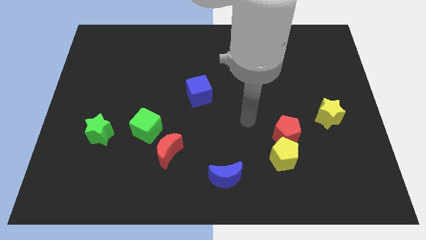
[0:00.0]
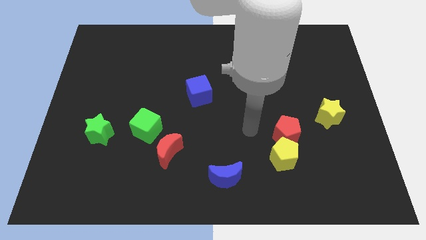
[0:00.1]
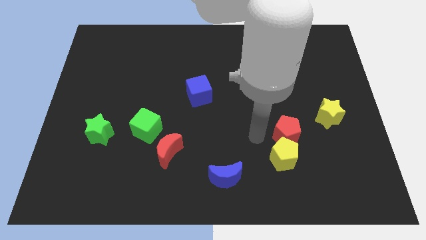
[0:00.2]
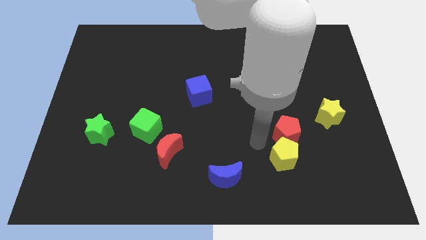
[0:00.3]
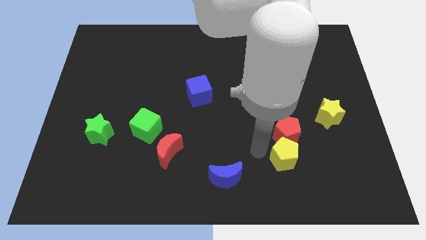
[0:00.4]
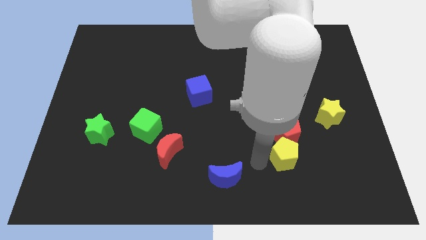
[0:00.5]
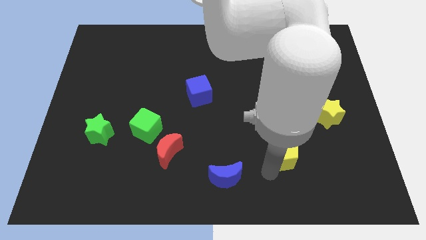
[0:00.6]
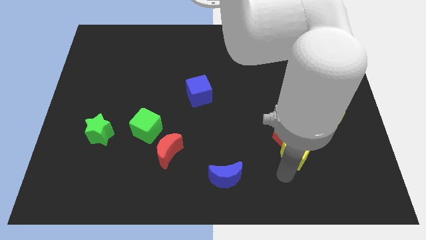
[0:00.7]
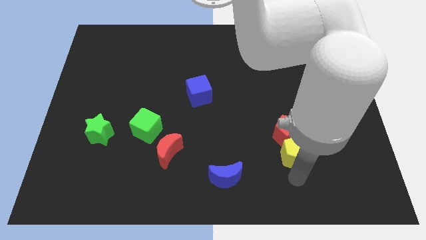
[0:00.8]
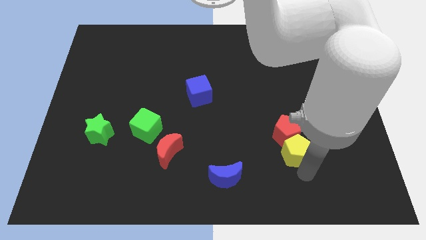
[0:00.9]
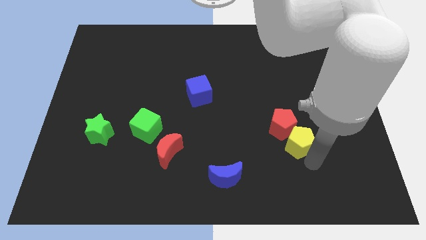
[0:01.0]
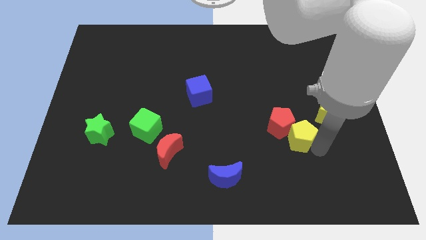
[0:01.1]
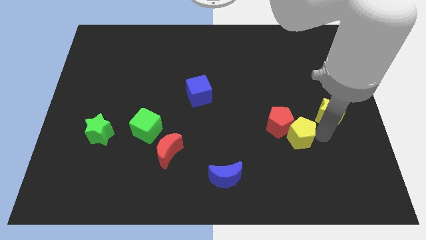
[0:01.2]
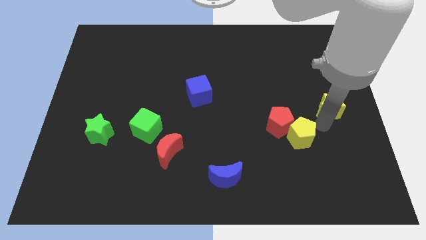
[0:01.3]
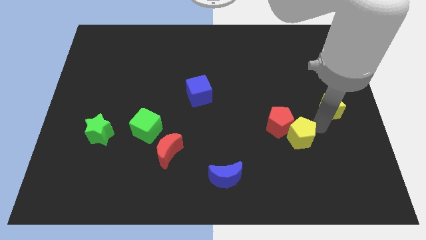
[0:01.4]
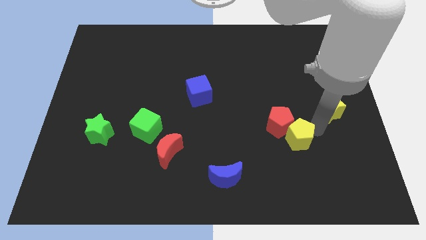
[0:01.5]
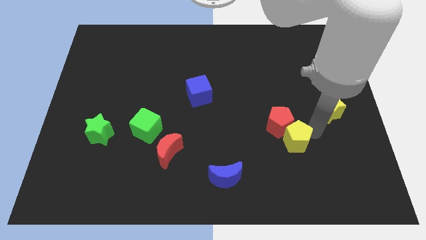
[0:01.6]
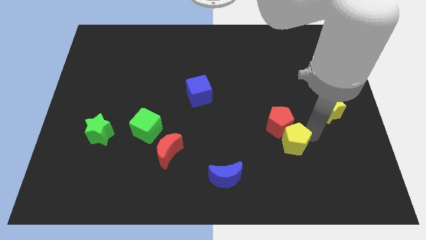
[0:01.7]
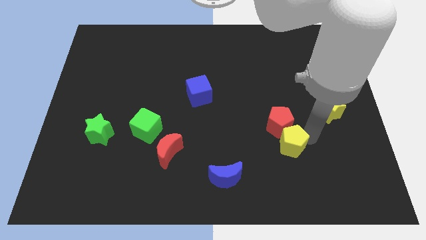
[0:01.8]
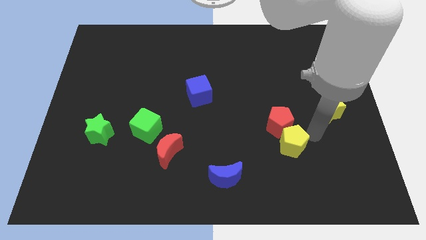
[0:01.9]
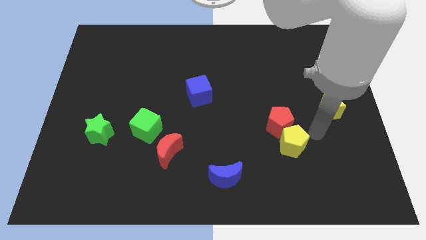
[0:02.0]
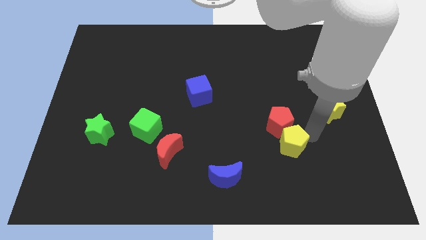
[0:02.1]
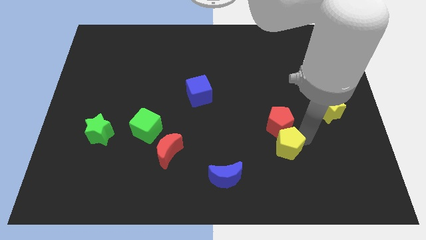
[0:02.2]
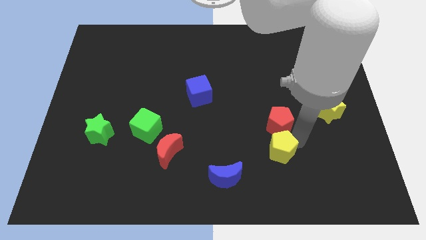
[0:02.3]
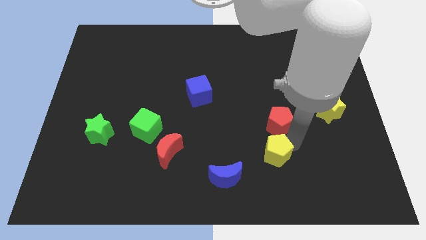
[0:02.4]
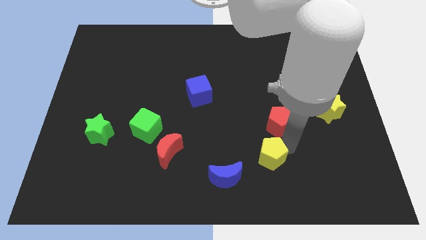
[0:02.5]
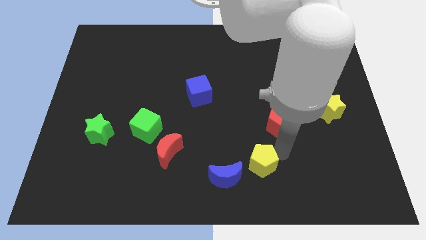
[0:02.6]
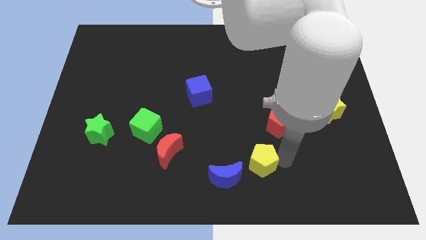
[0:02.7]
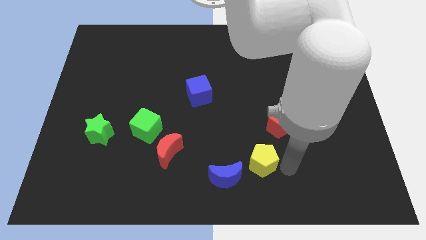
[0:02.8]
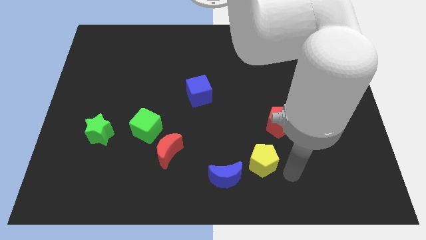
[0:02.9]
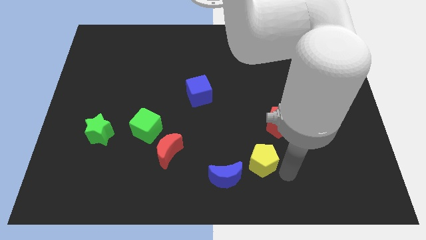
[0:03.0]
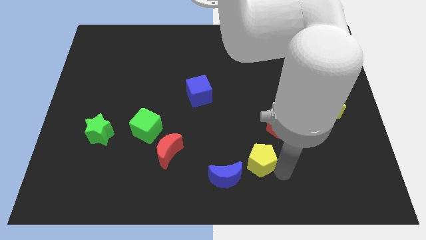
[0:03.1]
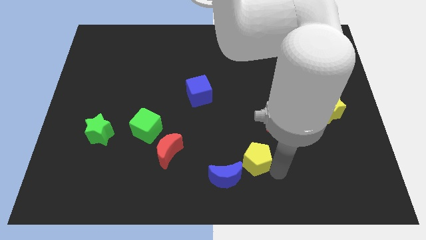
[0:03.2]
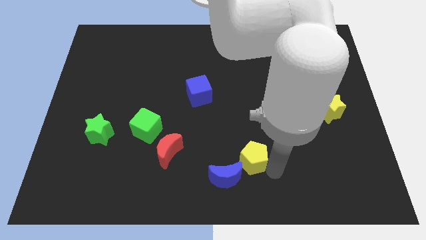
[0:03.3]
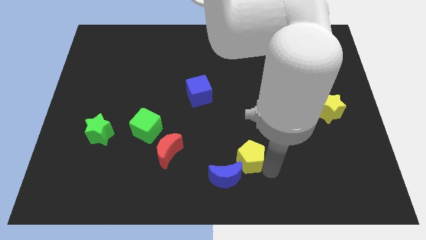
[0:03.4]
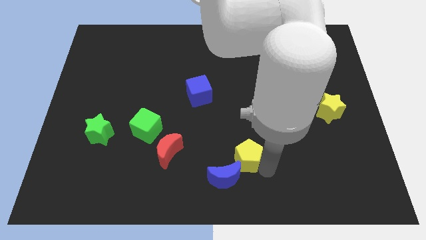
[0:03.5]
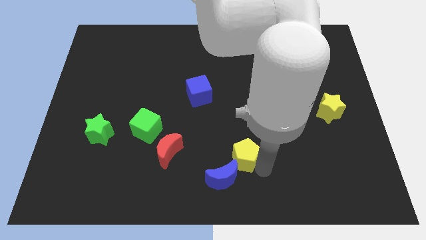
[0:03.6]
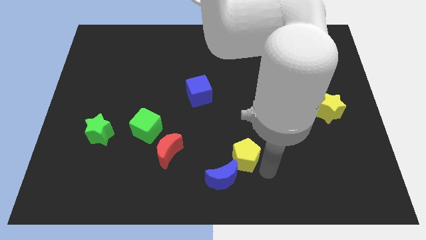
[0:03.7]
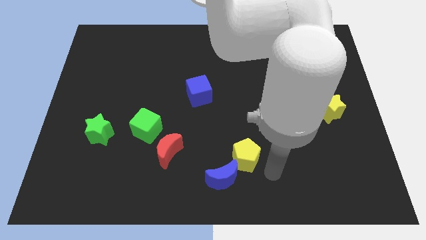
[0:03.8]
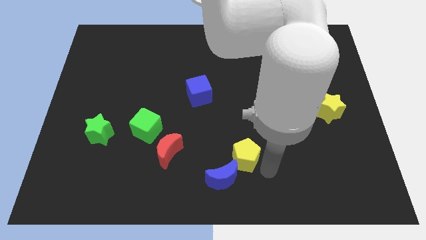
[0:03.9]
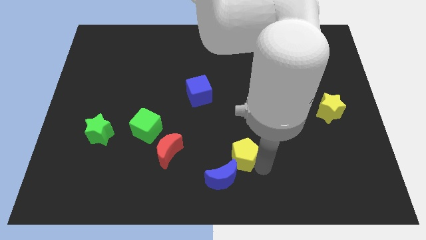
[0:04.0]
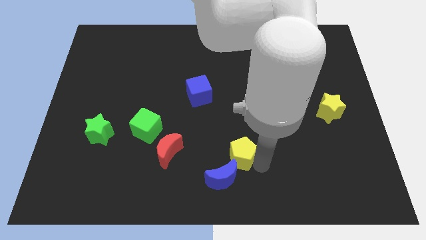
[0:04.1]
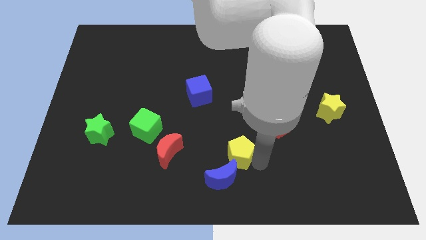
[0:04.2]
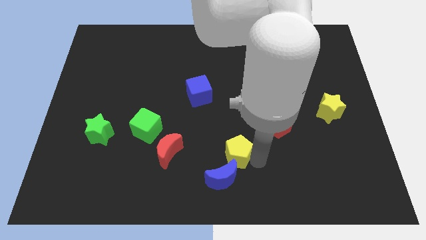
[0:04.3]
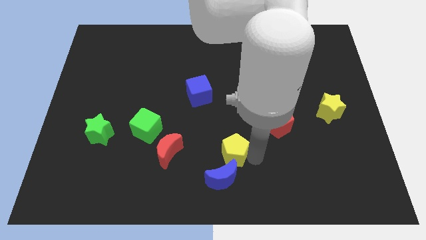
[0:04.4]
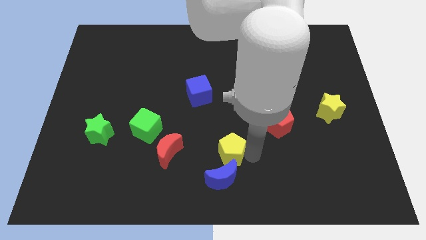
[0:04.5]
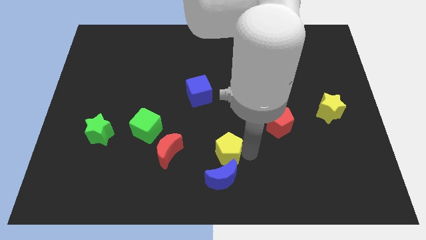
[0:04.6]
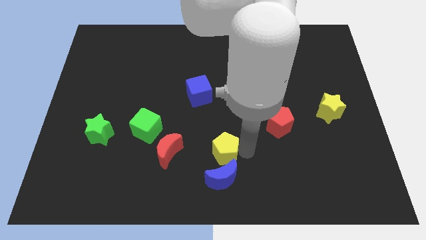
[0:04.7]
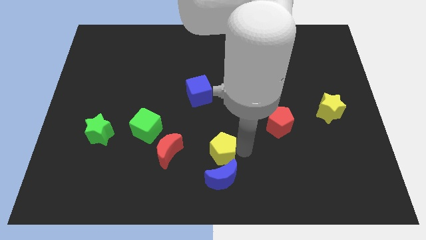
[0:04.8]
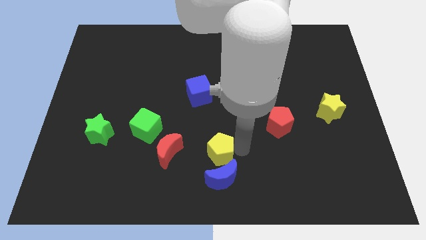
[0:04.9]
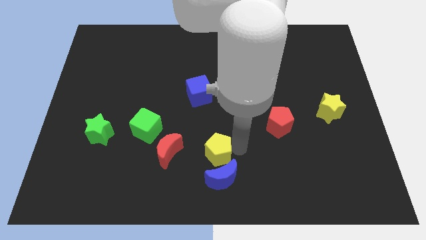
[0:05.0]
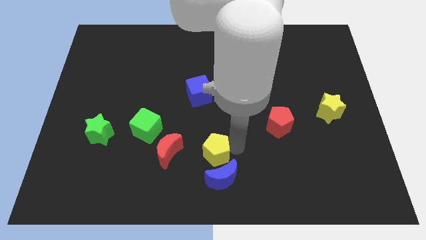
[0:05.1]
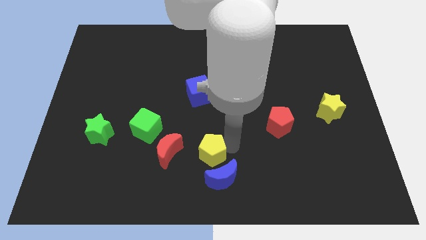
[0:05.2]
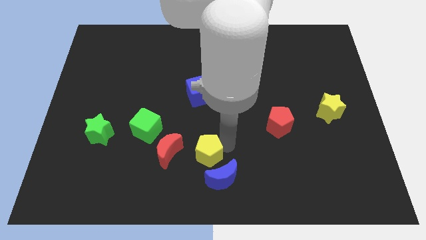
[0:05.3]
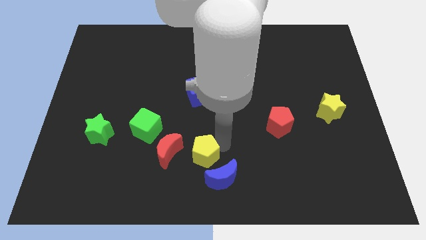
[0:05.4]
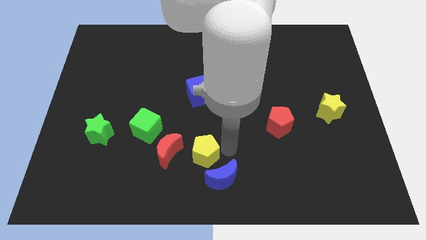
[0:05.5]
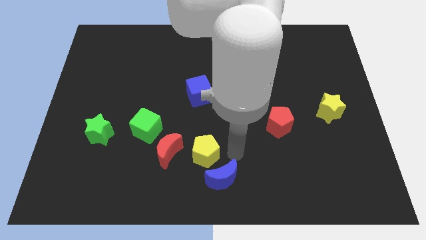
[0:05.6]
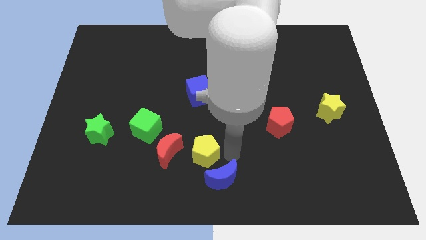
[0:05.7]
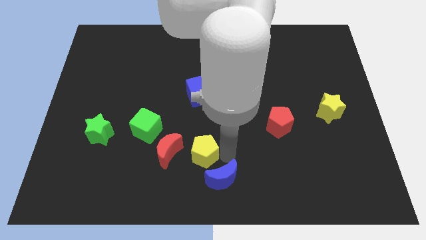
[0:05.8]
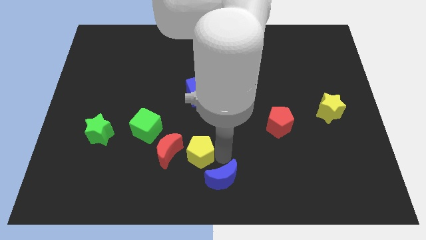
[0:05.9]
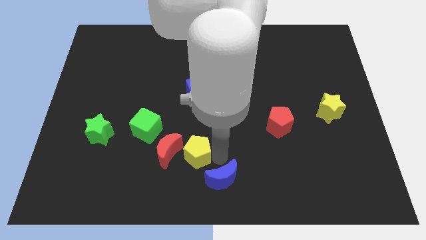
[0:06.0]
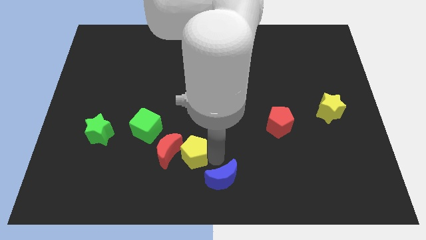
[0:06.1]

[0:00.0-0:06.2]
move the yellow pentagon close to the red moon

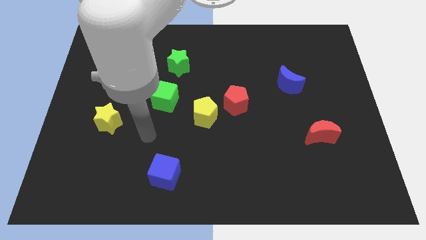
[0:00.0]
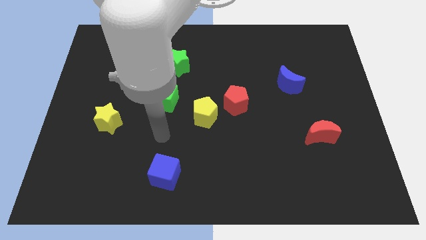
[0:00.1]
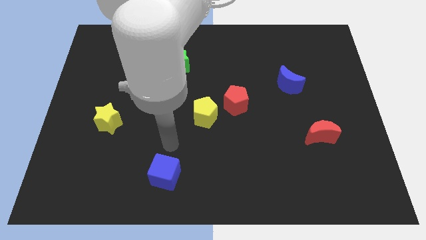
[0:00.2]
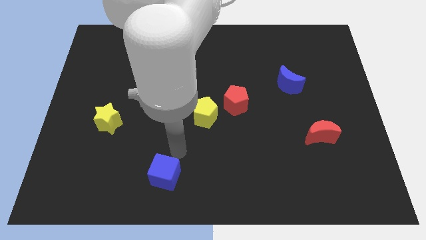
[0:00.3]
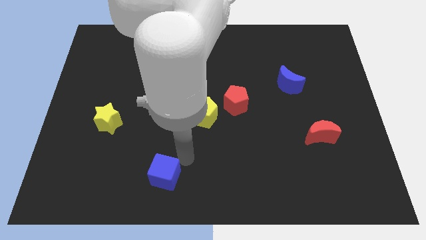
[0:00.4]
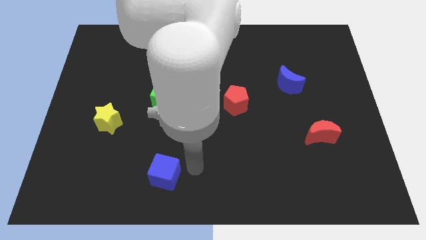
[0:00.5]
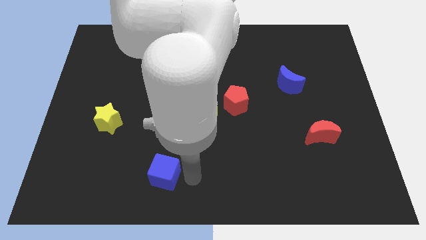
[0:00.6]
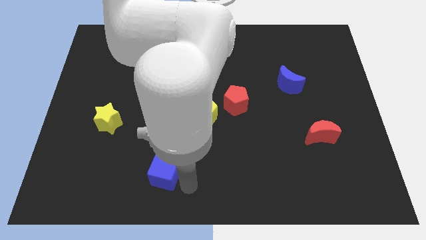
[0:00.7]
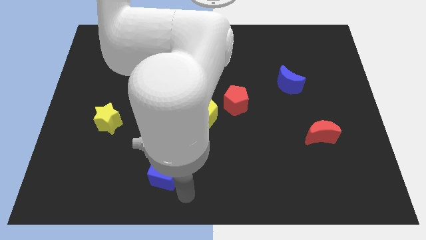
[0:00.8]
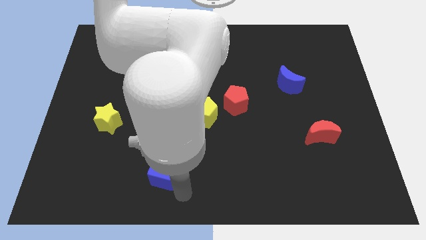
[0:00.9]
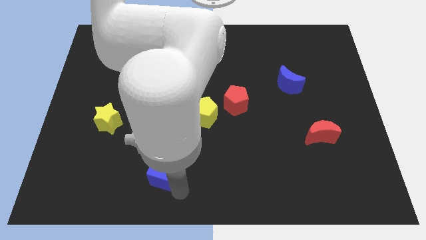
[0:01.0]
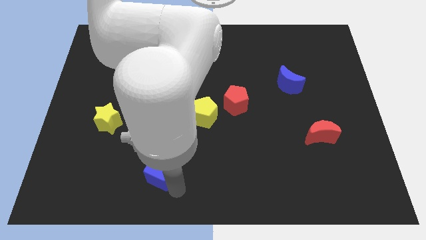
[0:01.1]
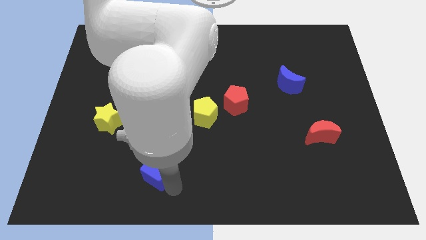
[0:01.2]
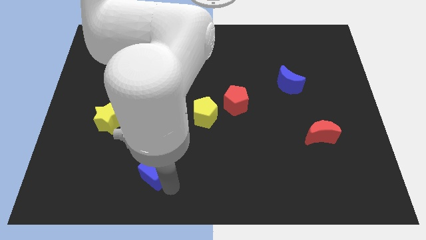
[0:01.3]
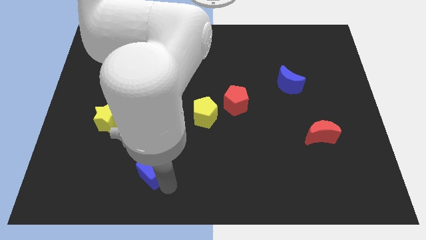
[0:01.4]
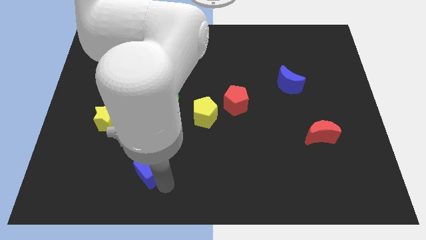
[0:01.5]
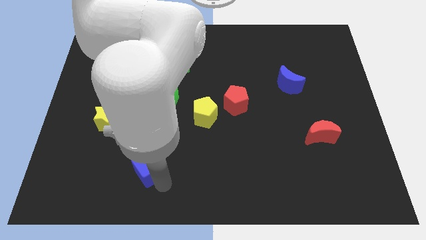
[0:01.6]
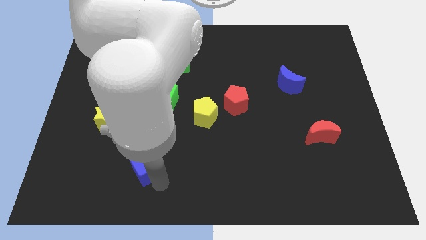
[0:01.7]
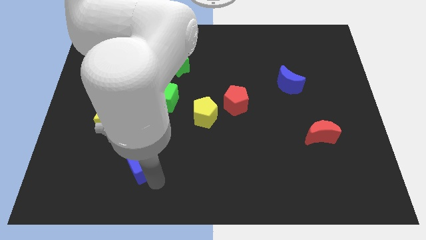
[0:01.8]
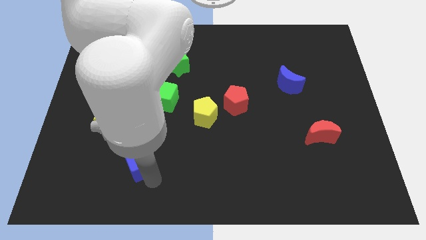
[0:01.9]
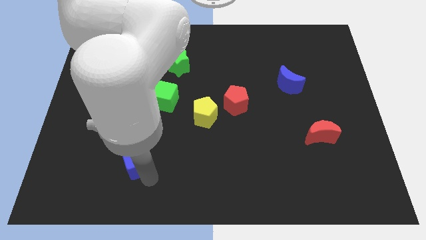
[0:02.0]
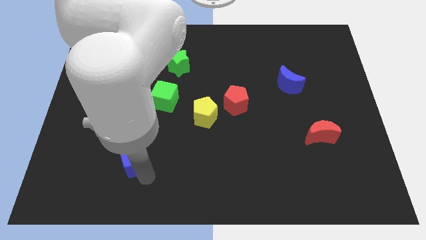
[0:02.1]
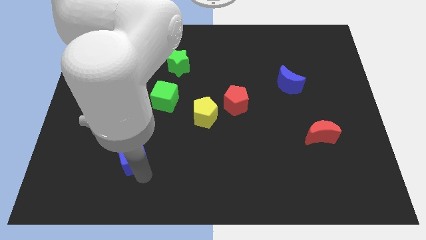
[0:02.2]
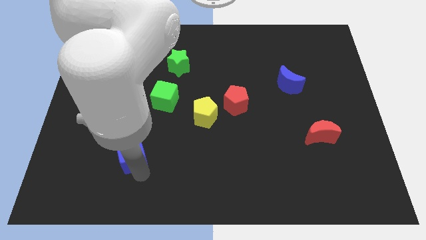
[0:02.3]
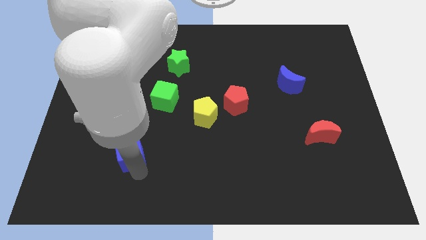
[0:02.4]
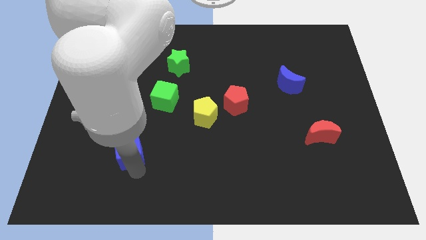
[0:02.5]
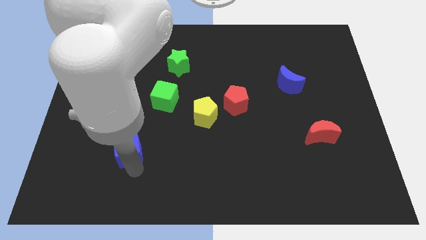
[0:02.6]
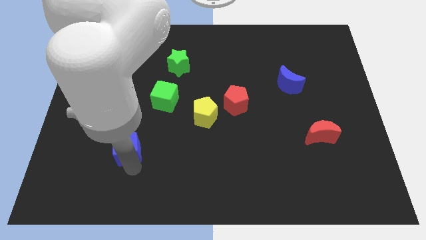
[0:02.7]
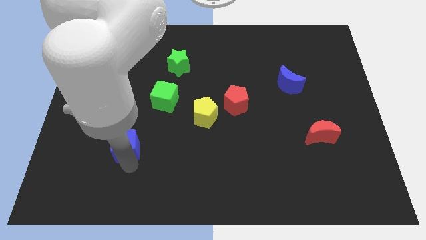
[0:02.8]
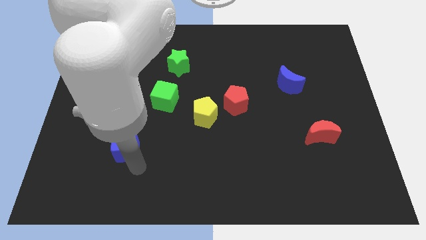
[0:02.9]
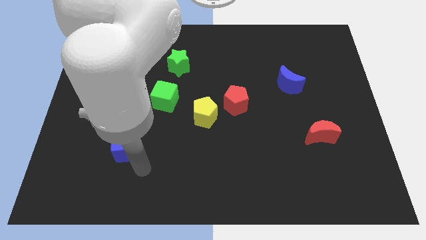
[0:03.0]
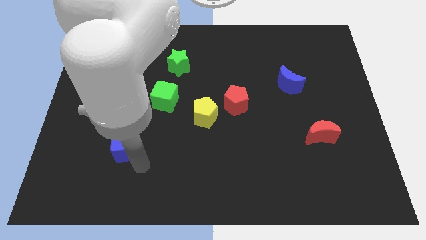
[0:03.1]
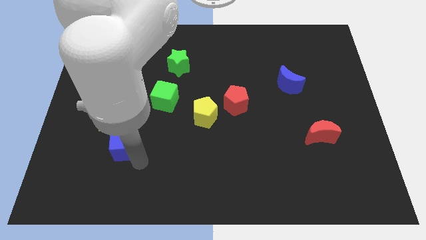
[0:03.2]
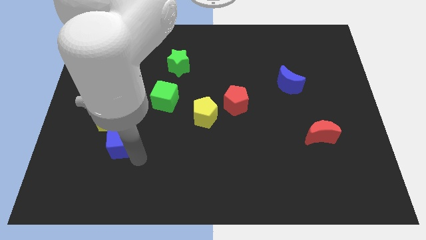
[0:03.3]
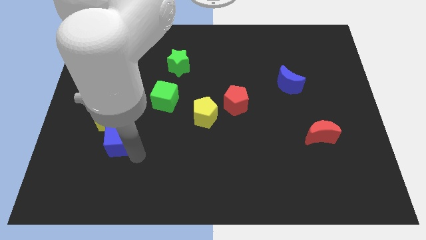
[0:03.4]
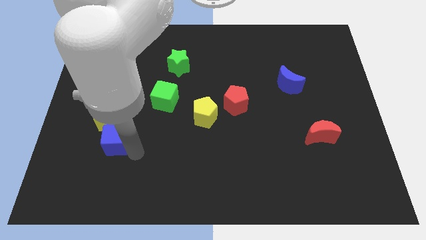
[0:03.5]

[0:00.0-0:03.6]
put the blue cube close to the yellow star
